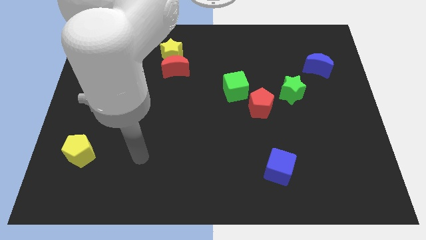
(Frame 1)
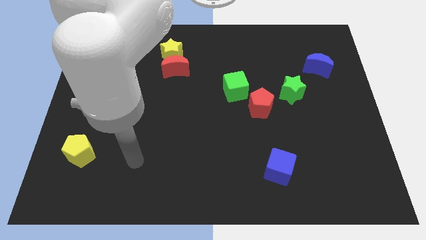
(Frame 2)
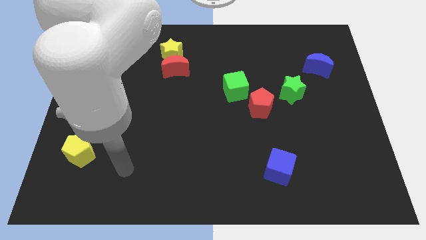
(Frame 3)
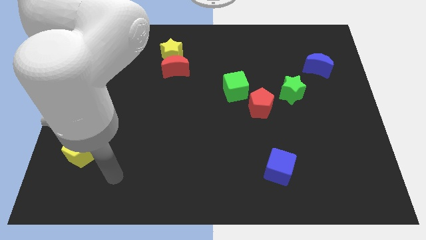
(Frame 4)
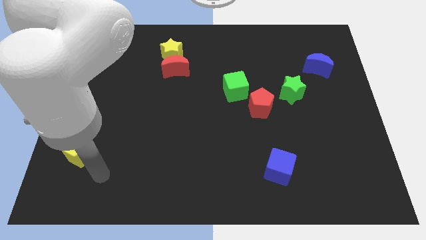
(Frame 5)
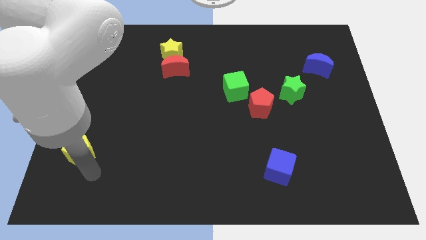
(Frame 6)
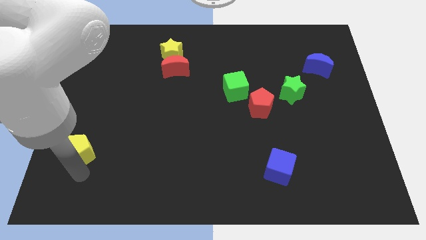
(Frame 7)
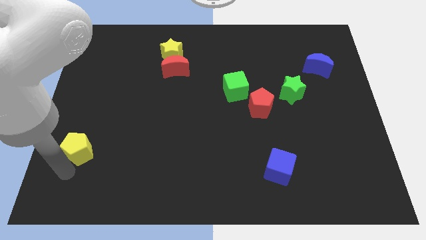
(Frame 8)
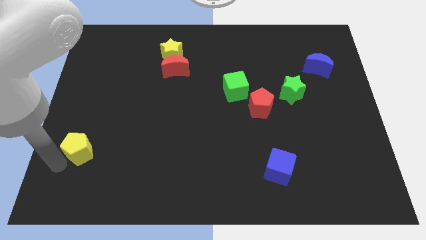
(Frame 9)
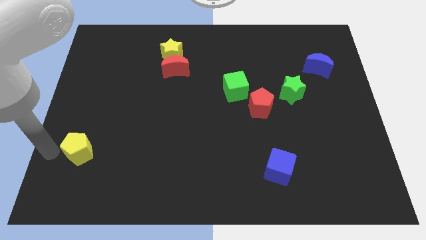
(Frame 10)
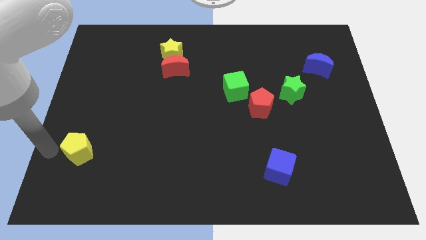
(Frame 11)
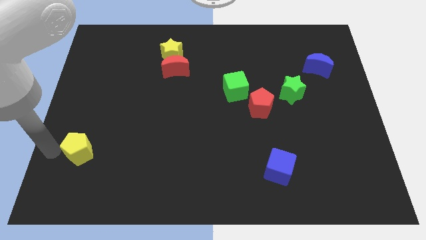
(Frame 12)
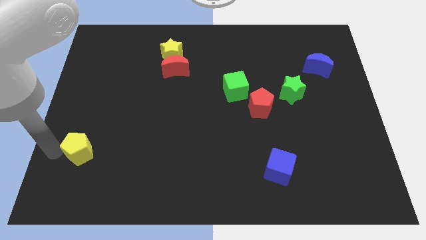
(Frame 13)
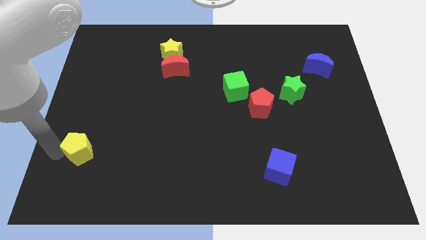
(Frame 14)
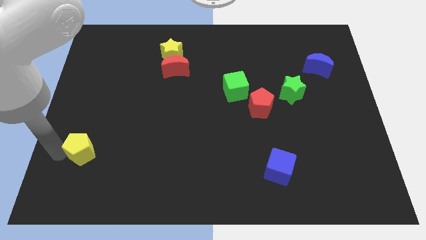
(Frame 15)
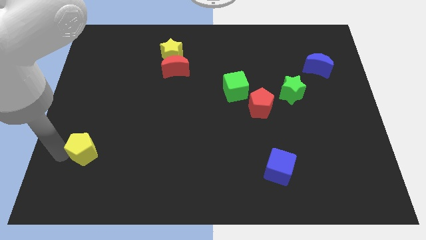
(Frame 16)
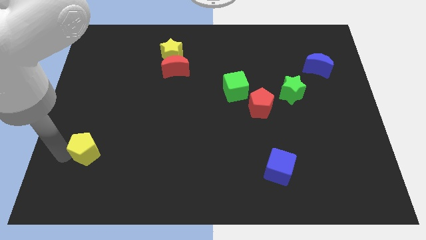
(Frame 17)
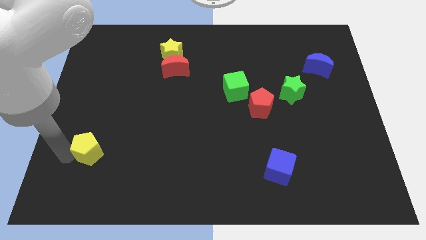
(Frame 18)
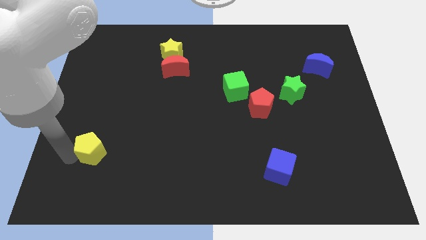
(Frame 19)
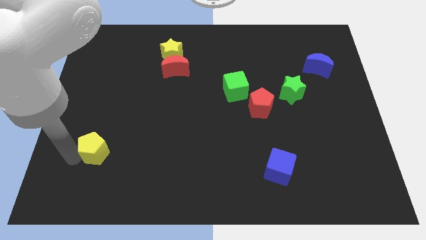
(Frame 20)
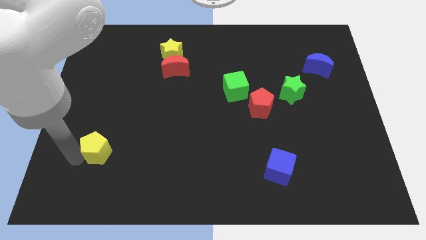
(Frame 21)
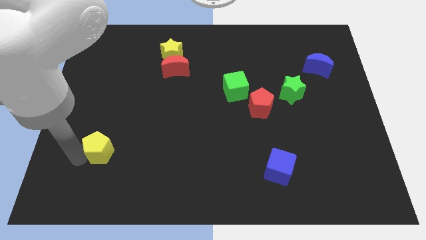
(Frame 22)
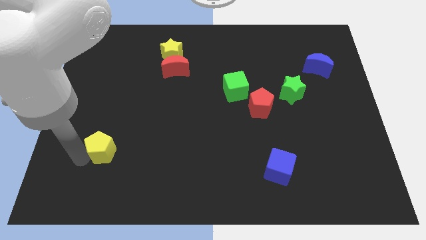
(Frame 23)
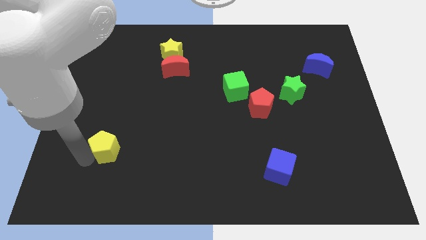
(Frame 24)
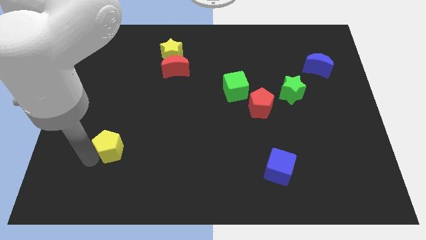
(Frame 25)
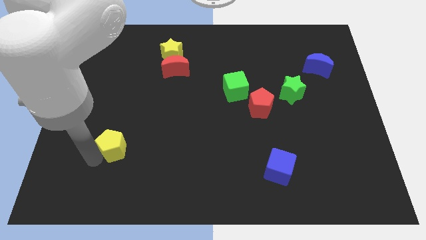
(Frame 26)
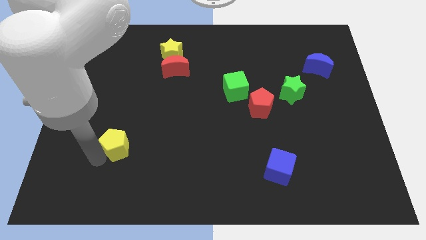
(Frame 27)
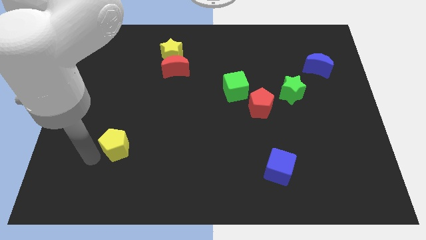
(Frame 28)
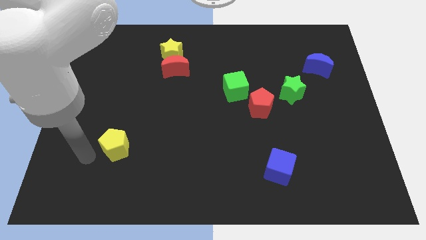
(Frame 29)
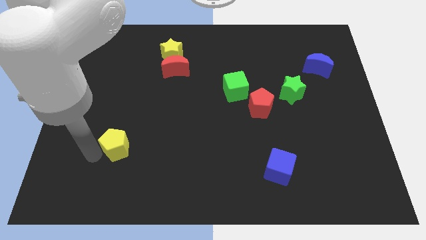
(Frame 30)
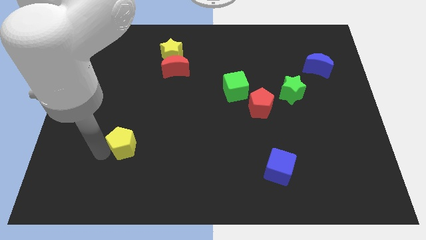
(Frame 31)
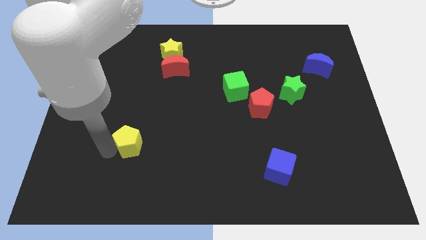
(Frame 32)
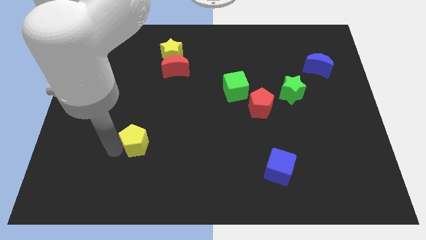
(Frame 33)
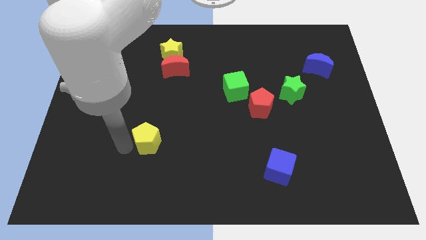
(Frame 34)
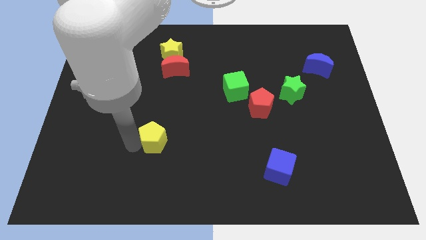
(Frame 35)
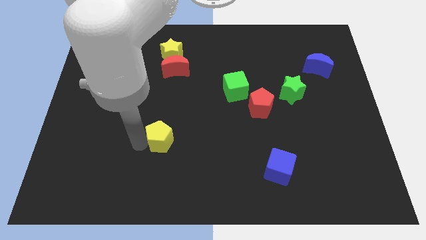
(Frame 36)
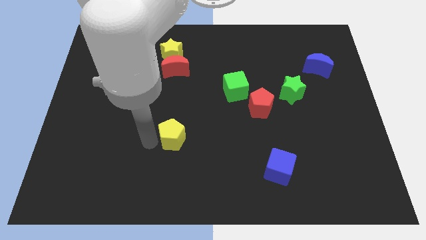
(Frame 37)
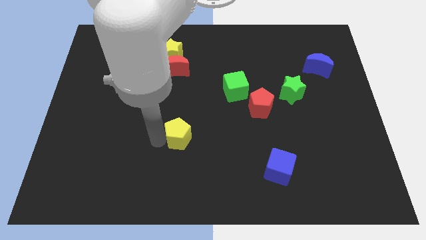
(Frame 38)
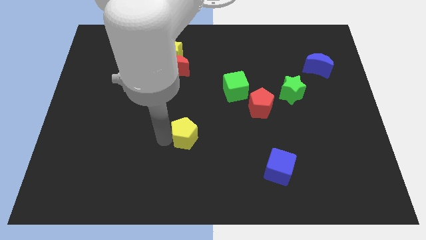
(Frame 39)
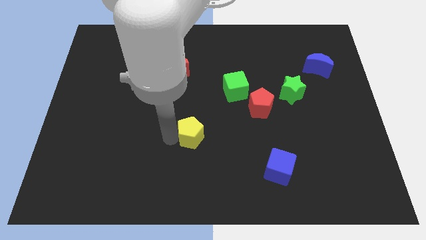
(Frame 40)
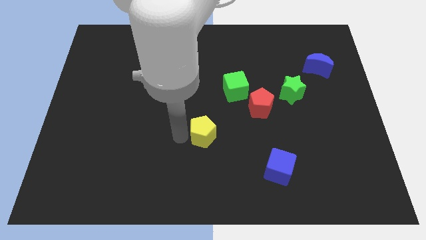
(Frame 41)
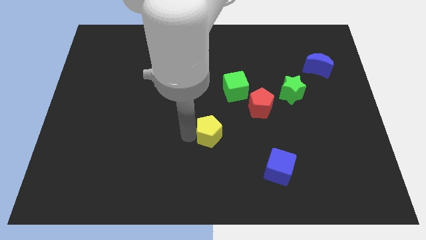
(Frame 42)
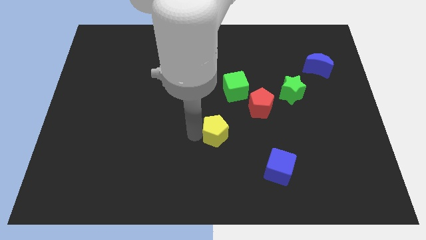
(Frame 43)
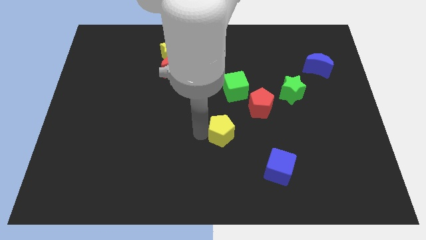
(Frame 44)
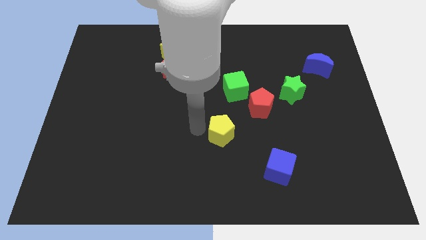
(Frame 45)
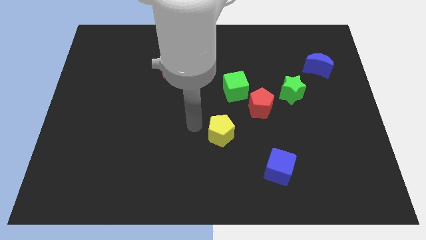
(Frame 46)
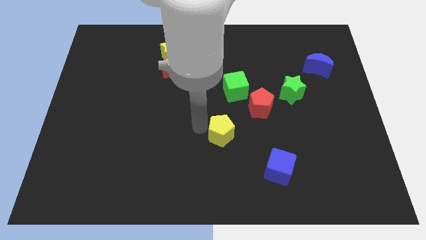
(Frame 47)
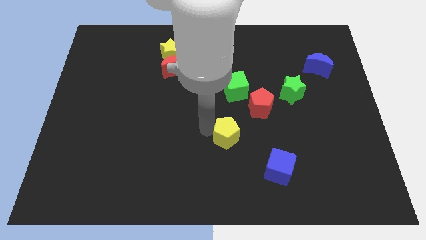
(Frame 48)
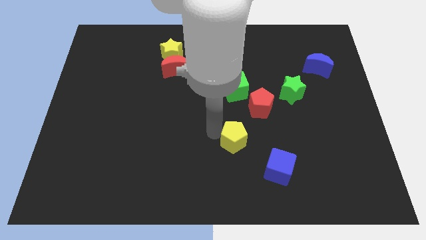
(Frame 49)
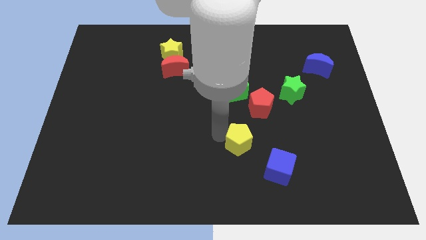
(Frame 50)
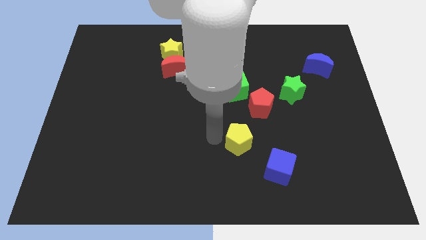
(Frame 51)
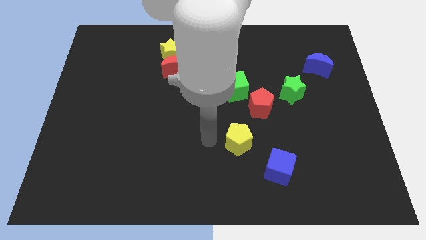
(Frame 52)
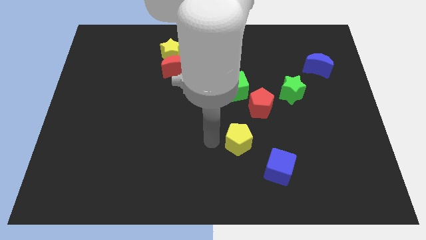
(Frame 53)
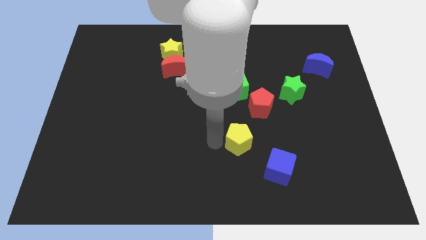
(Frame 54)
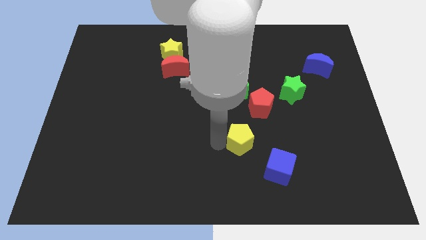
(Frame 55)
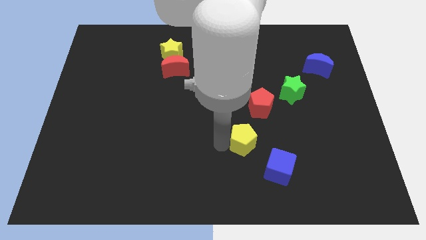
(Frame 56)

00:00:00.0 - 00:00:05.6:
move the yellow pentagon to the bottom side of the red pentagon
